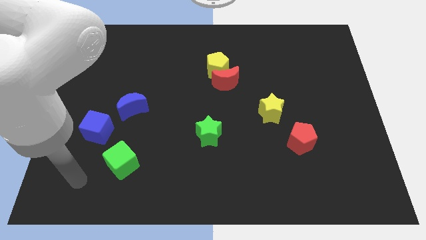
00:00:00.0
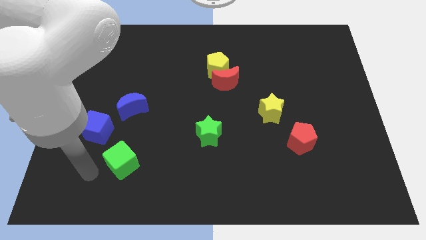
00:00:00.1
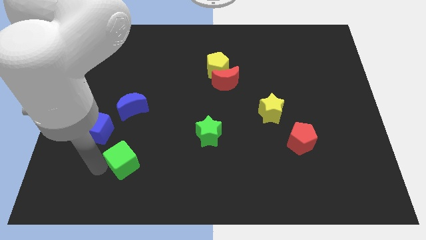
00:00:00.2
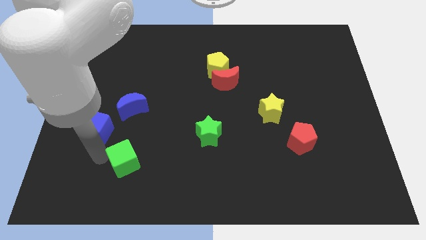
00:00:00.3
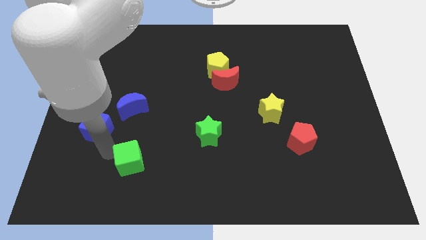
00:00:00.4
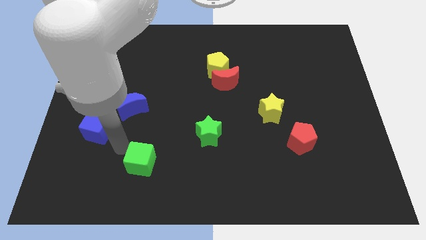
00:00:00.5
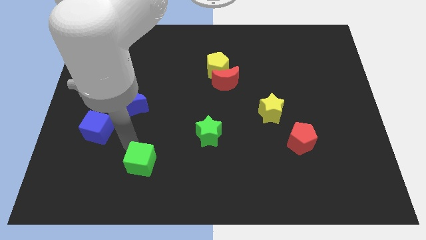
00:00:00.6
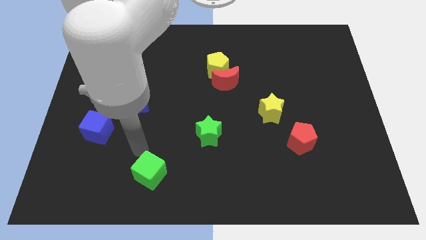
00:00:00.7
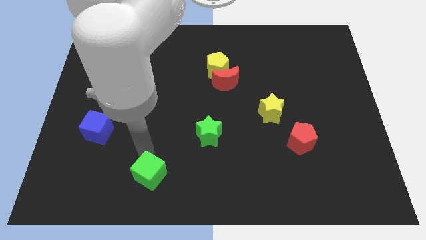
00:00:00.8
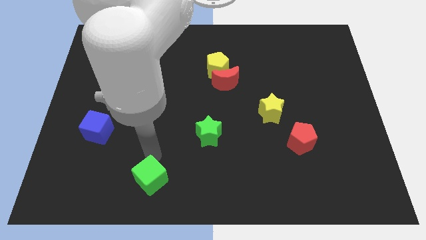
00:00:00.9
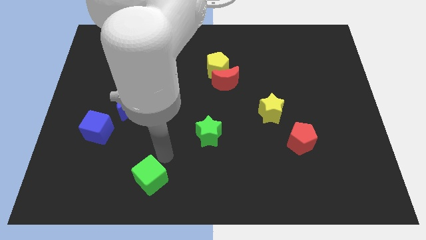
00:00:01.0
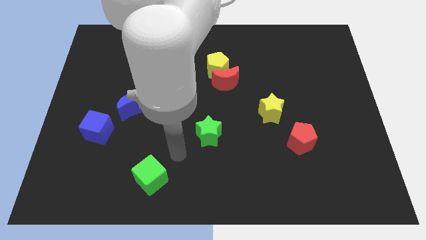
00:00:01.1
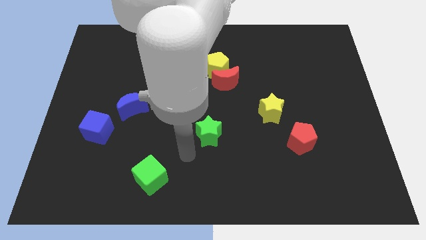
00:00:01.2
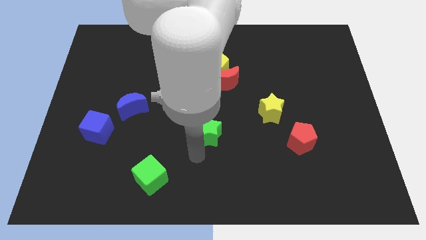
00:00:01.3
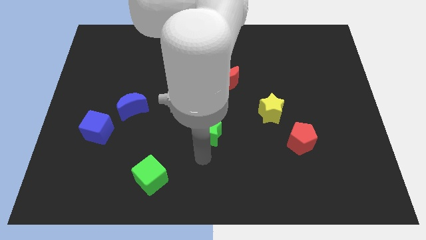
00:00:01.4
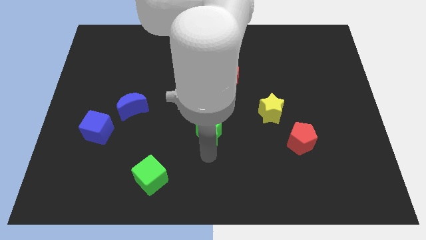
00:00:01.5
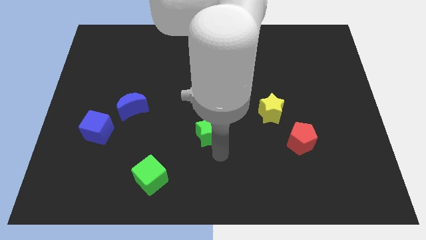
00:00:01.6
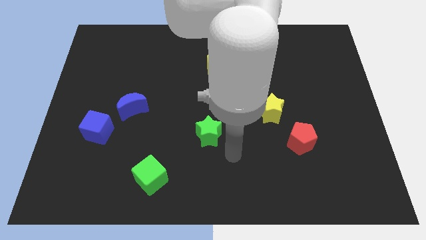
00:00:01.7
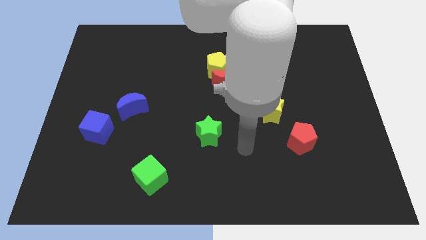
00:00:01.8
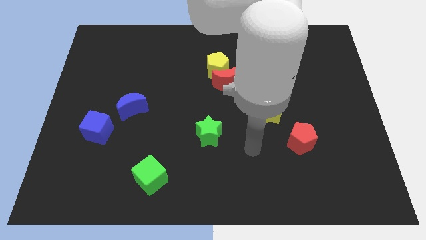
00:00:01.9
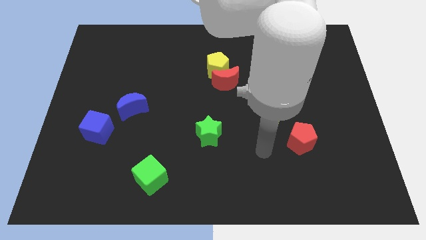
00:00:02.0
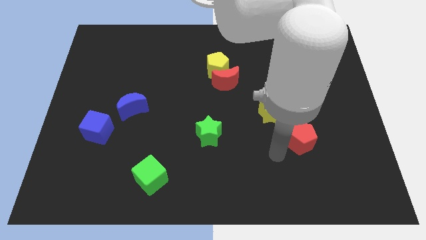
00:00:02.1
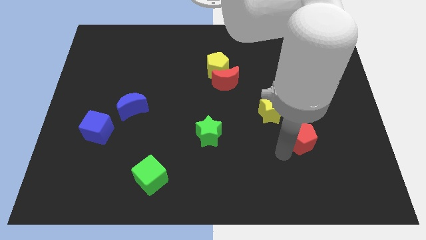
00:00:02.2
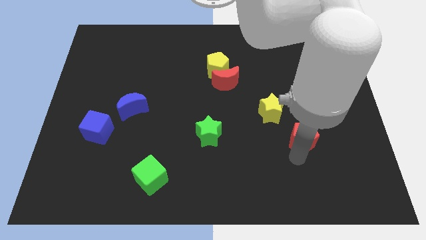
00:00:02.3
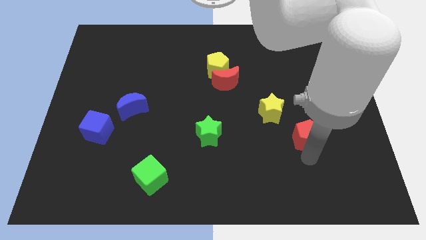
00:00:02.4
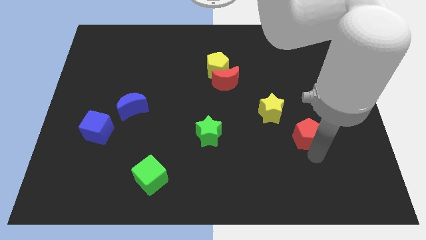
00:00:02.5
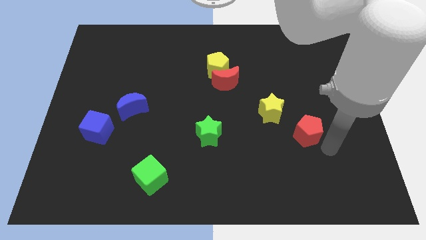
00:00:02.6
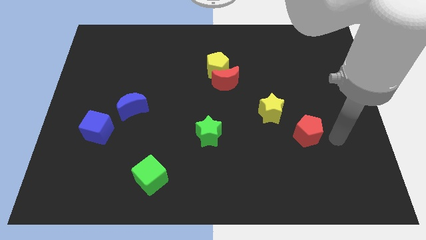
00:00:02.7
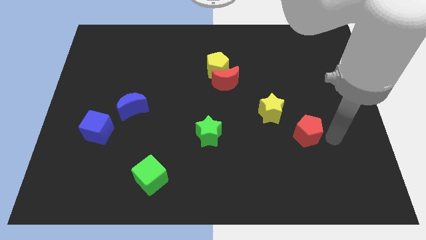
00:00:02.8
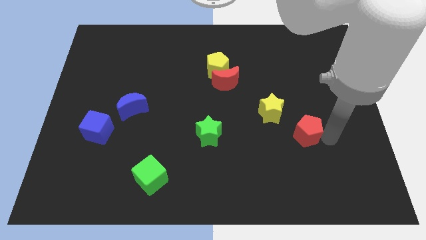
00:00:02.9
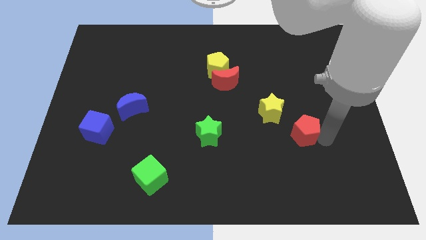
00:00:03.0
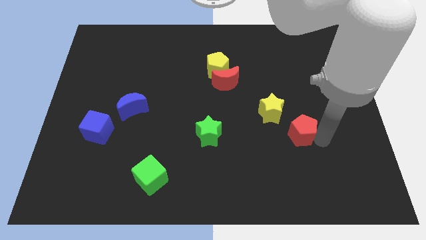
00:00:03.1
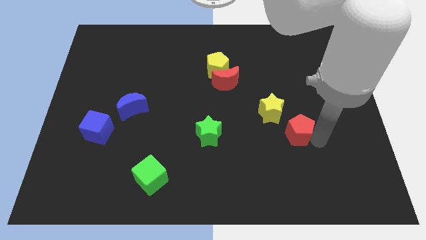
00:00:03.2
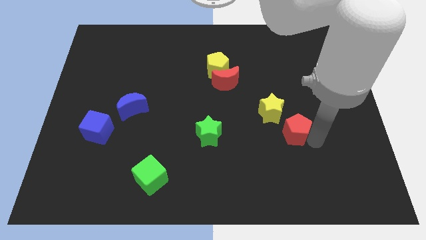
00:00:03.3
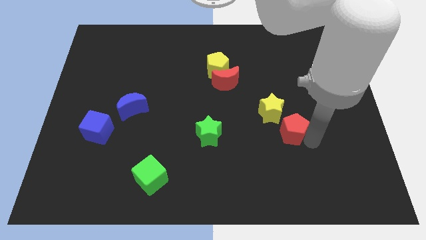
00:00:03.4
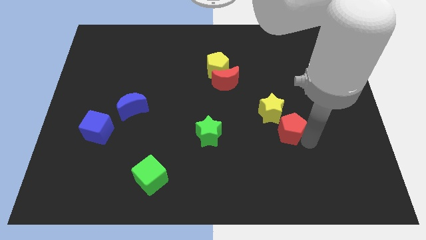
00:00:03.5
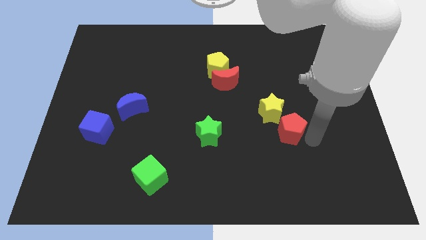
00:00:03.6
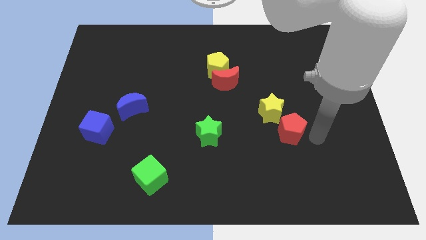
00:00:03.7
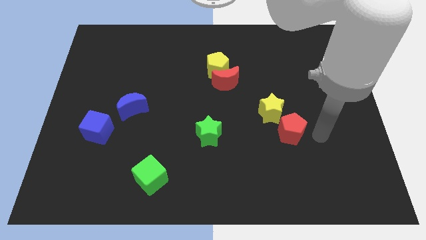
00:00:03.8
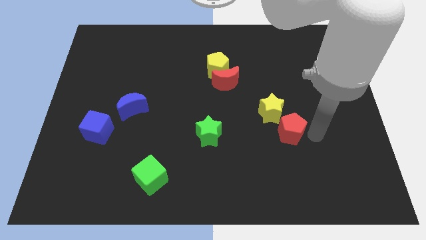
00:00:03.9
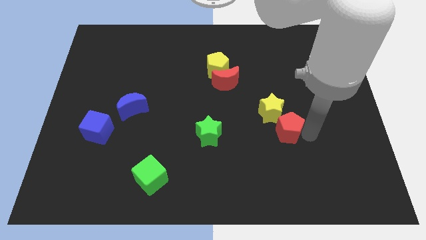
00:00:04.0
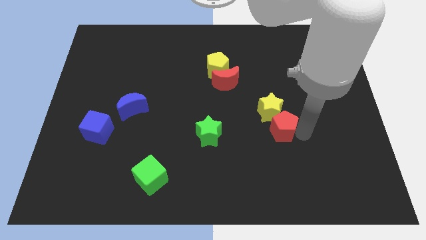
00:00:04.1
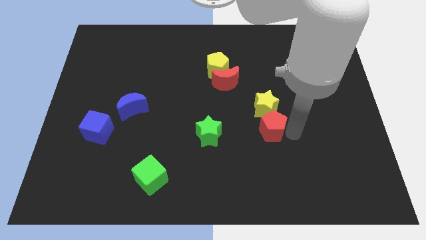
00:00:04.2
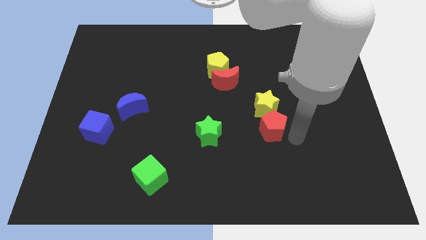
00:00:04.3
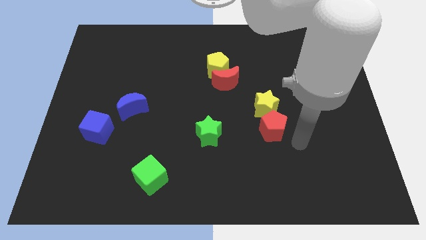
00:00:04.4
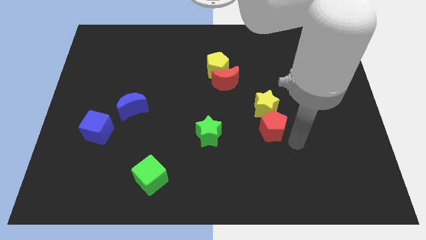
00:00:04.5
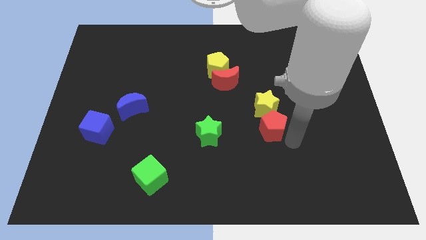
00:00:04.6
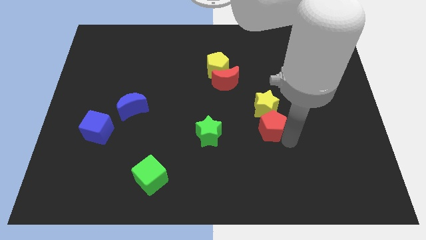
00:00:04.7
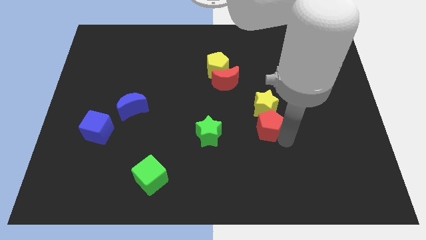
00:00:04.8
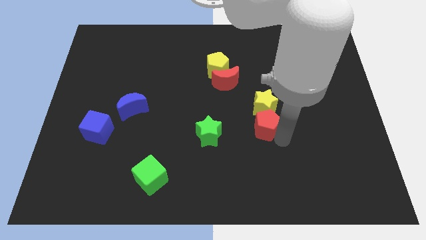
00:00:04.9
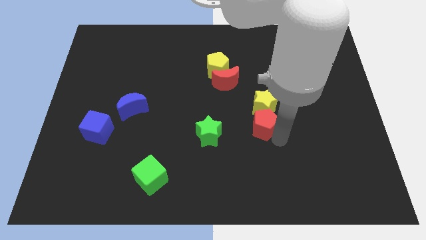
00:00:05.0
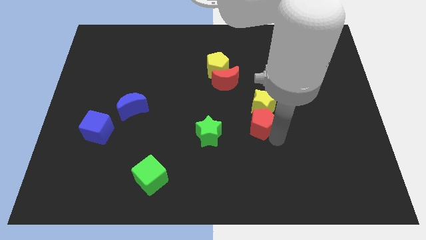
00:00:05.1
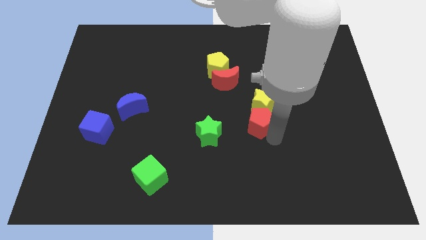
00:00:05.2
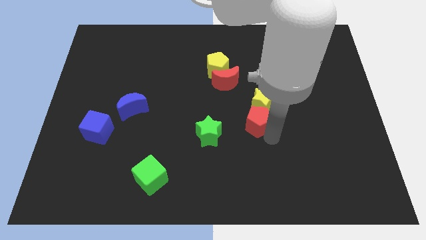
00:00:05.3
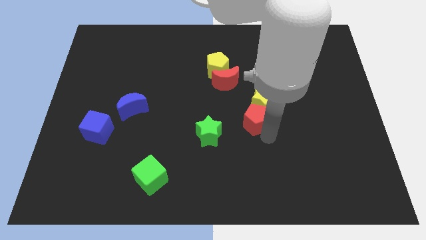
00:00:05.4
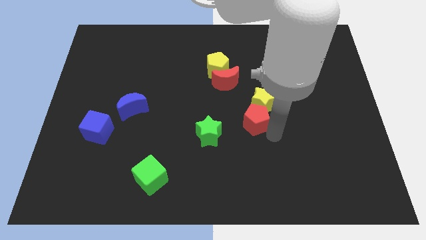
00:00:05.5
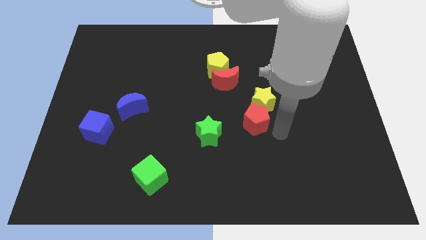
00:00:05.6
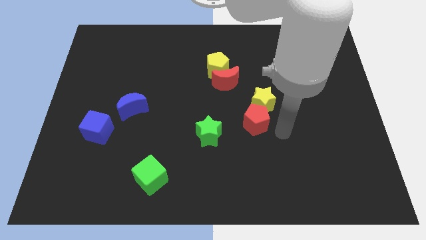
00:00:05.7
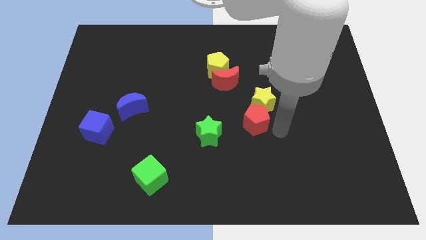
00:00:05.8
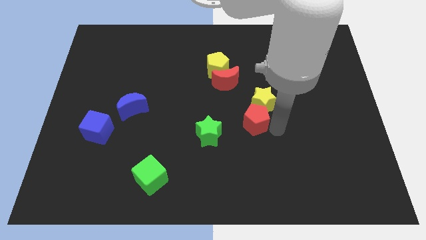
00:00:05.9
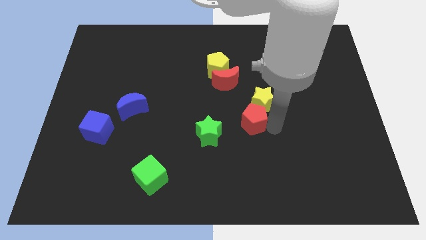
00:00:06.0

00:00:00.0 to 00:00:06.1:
move the red pentagon diagonally up and to the right of the green star
